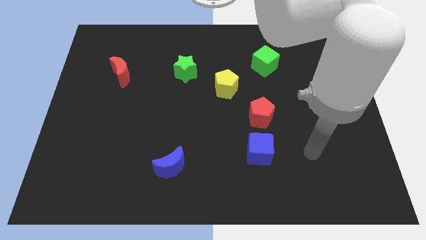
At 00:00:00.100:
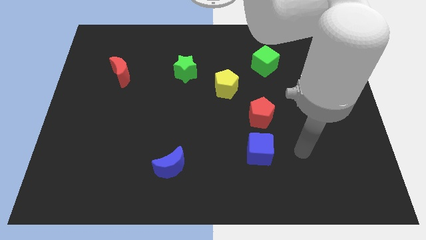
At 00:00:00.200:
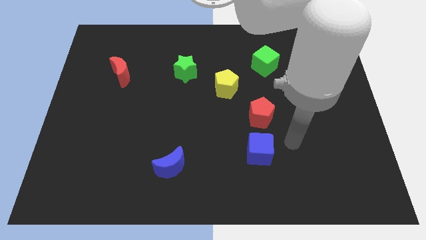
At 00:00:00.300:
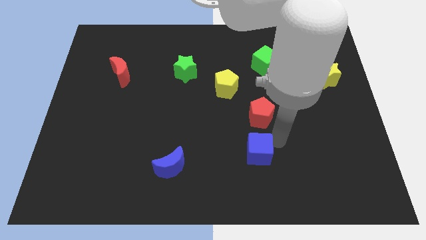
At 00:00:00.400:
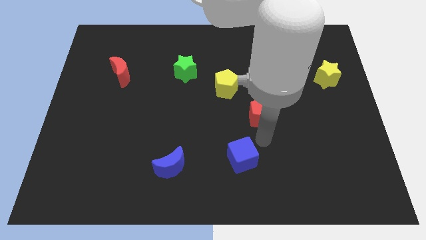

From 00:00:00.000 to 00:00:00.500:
move the red pentagon away from the blue cube

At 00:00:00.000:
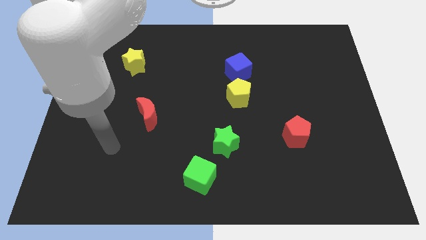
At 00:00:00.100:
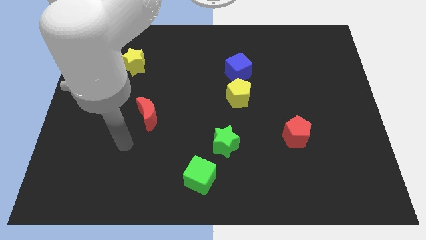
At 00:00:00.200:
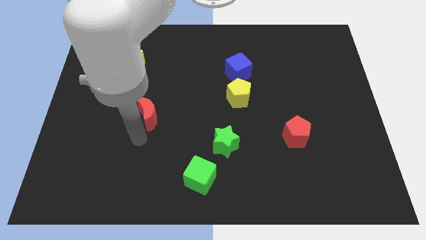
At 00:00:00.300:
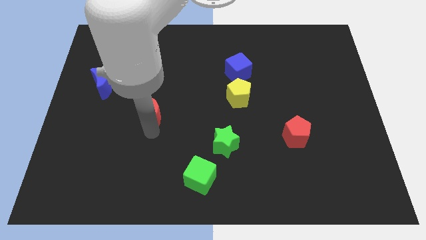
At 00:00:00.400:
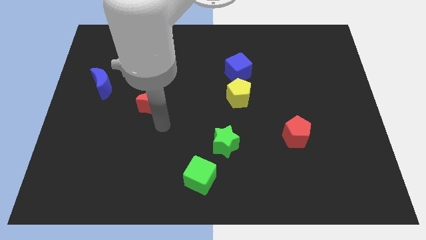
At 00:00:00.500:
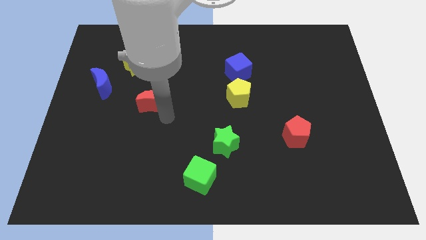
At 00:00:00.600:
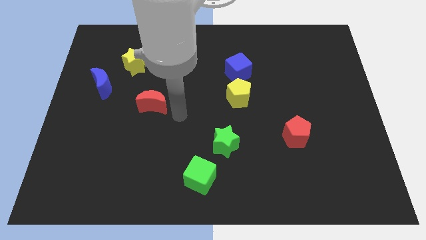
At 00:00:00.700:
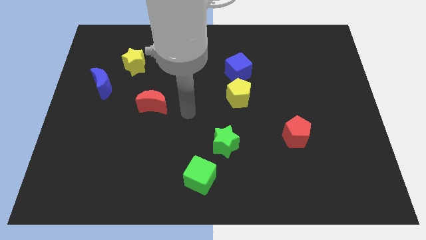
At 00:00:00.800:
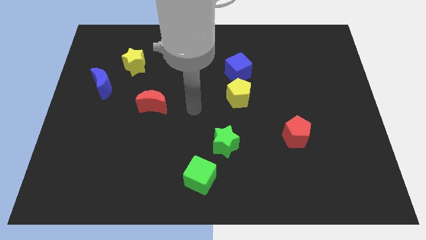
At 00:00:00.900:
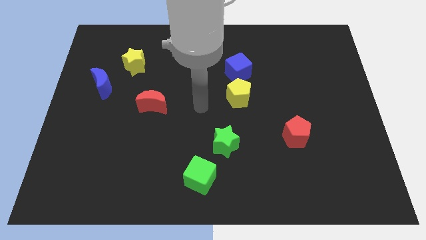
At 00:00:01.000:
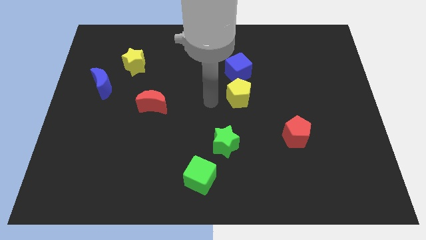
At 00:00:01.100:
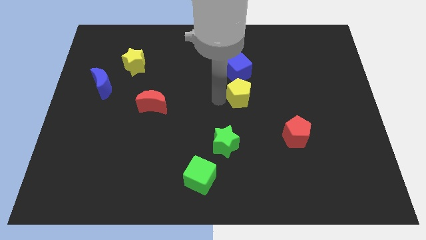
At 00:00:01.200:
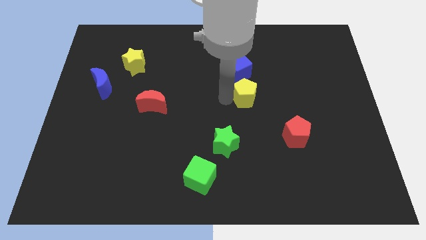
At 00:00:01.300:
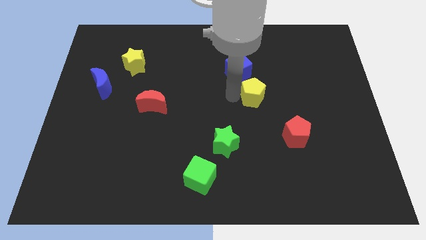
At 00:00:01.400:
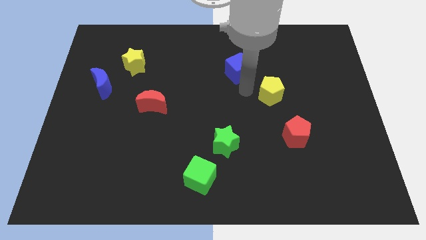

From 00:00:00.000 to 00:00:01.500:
move the blue cube away from the yellow pentagon

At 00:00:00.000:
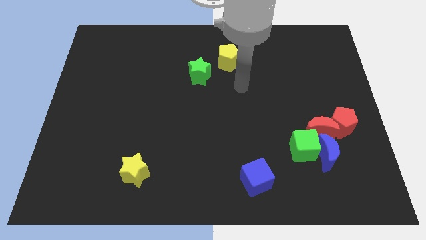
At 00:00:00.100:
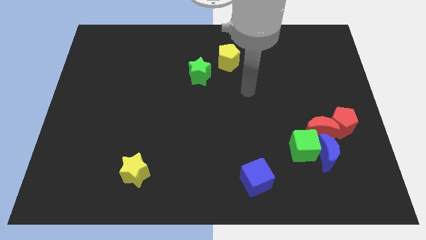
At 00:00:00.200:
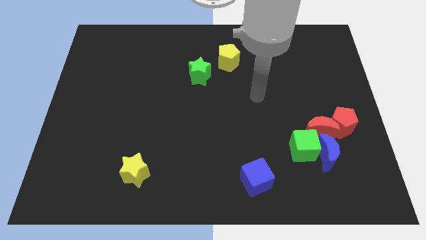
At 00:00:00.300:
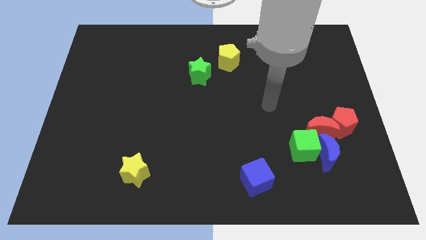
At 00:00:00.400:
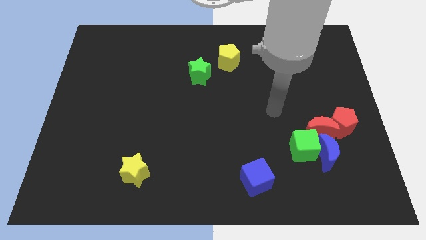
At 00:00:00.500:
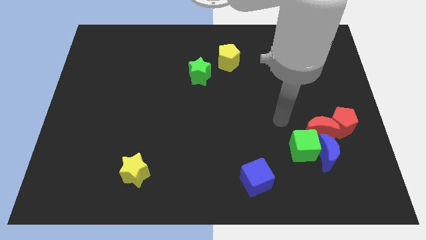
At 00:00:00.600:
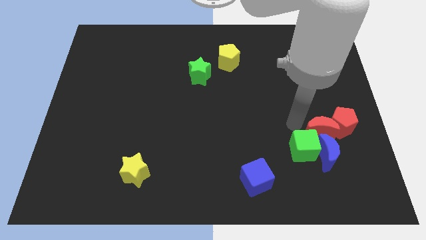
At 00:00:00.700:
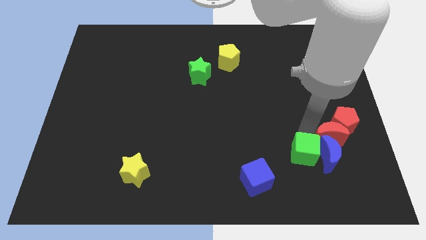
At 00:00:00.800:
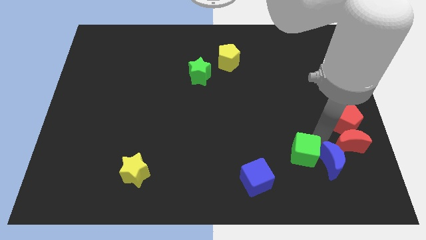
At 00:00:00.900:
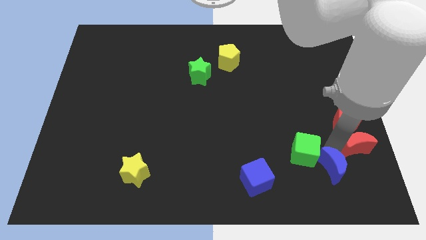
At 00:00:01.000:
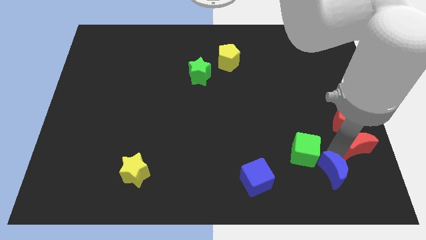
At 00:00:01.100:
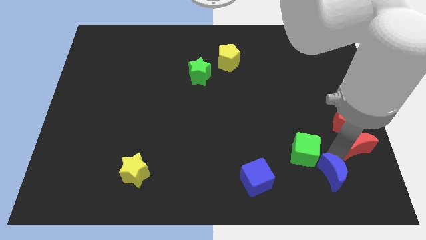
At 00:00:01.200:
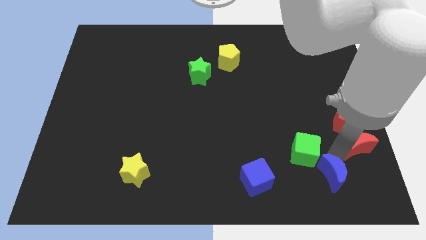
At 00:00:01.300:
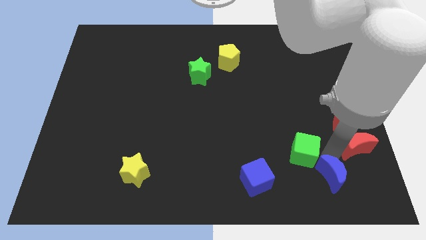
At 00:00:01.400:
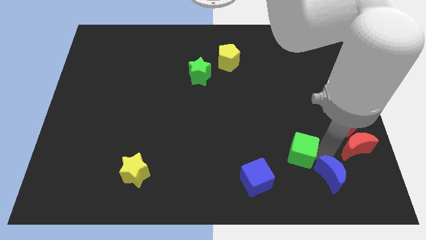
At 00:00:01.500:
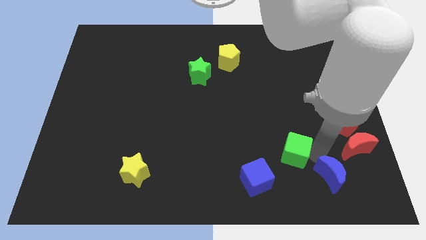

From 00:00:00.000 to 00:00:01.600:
pull the green cube apart from the blue moon and red moon

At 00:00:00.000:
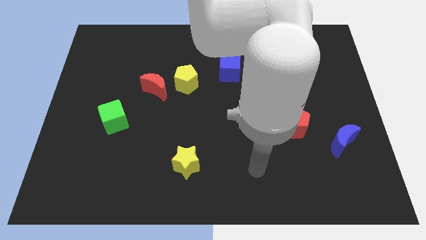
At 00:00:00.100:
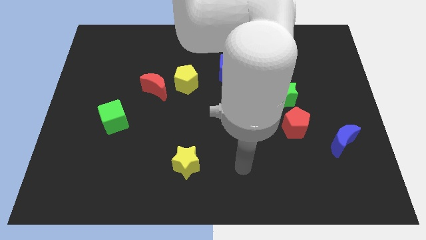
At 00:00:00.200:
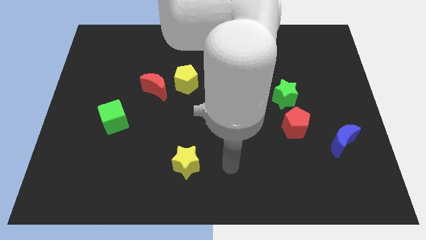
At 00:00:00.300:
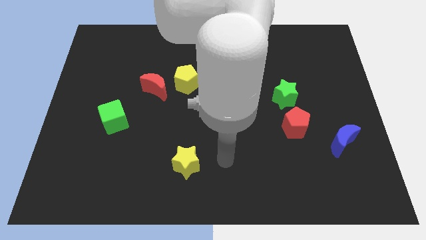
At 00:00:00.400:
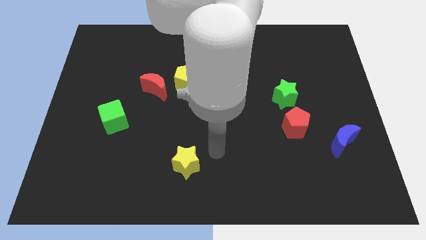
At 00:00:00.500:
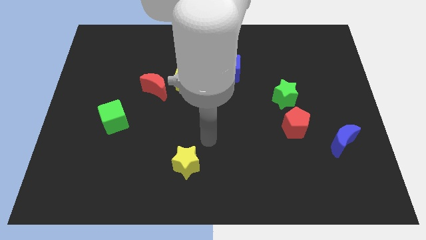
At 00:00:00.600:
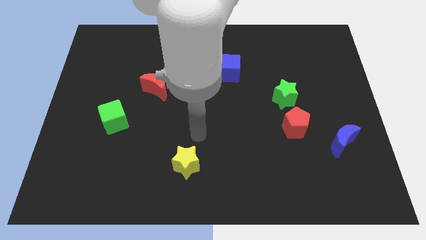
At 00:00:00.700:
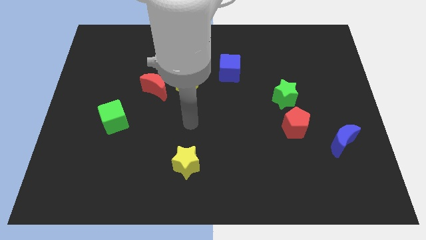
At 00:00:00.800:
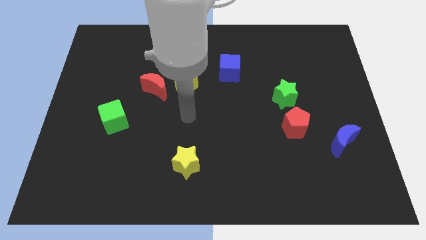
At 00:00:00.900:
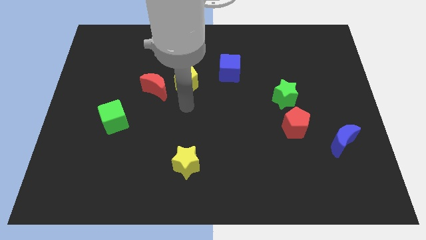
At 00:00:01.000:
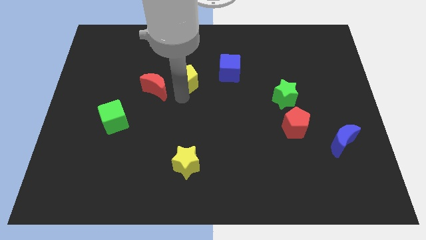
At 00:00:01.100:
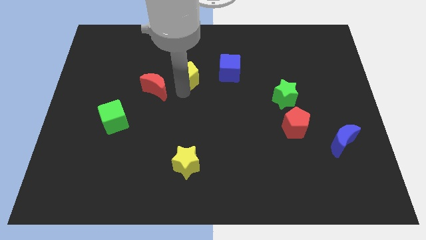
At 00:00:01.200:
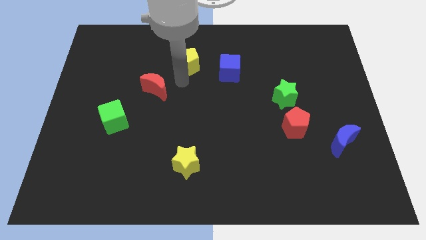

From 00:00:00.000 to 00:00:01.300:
move the red moon away from the yellow pentagon

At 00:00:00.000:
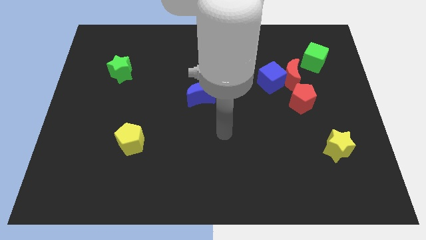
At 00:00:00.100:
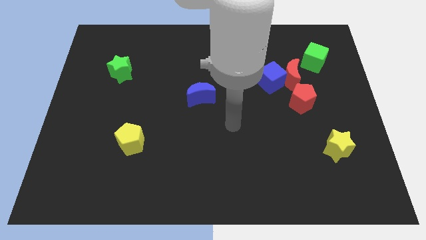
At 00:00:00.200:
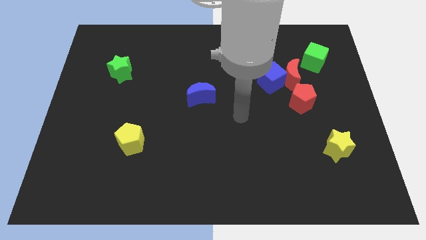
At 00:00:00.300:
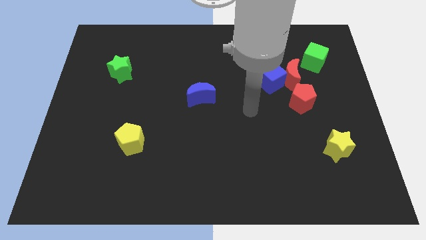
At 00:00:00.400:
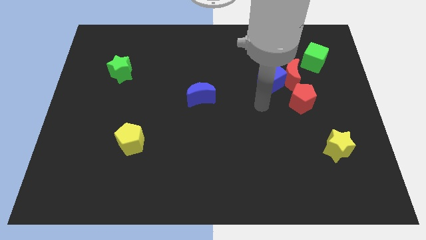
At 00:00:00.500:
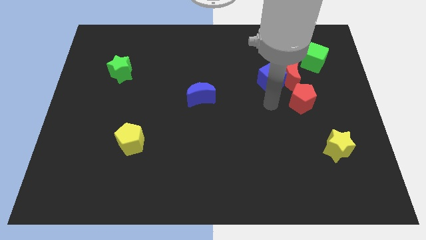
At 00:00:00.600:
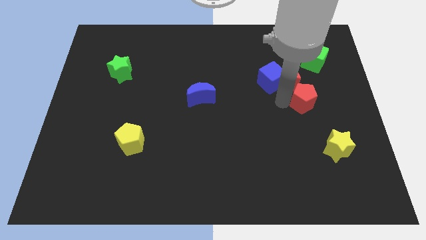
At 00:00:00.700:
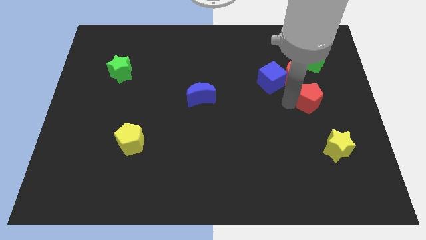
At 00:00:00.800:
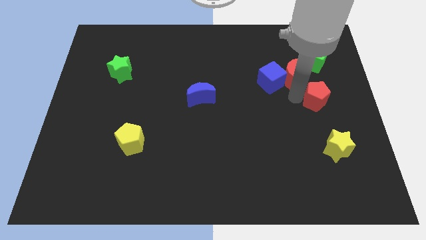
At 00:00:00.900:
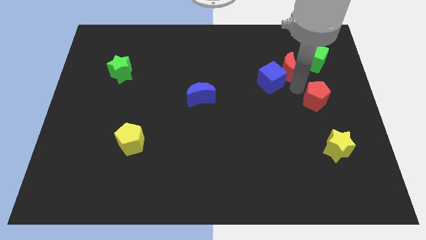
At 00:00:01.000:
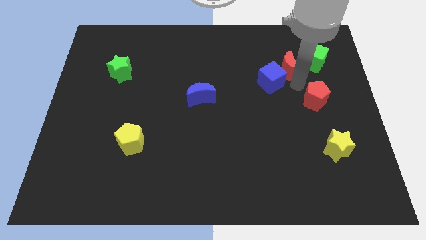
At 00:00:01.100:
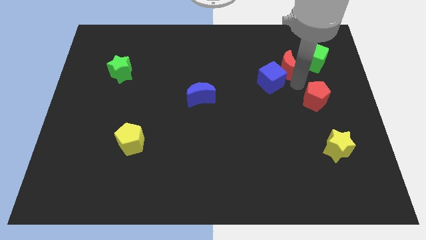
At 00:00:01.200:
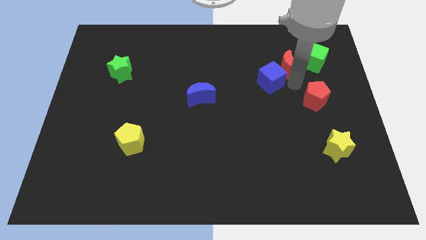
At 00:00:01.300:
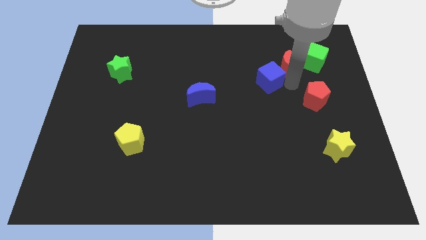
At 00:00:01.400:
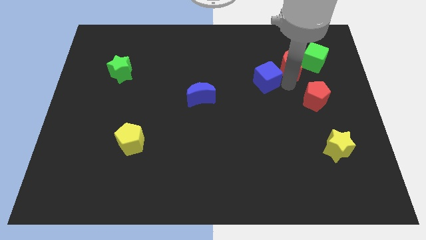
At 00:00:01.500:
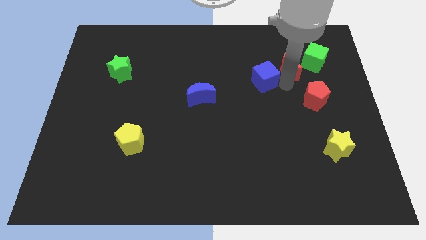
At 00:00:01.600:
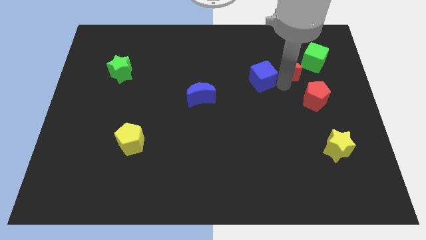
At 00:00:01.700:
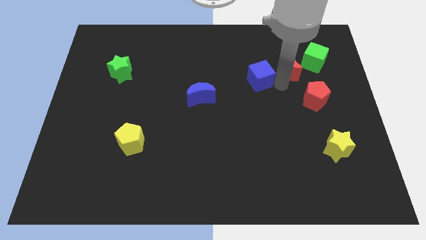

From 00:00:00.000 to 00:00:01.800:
move the blue cube away from the red moon and red pentagon

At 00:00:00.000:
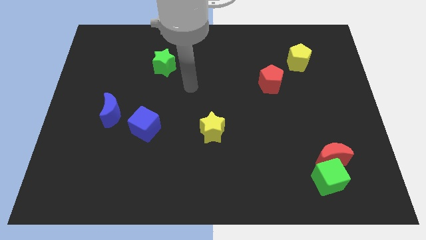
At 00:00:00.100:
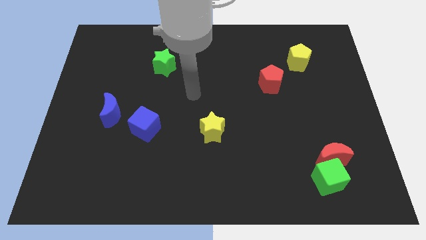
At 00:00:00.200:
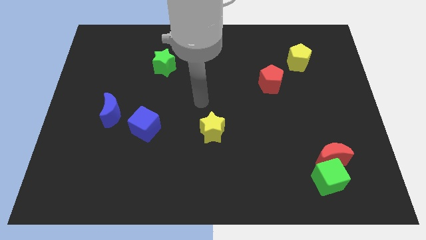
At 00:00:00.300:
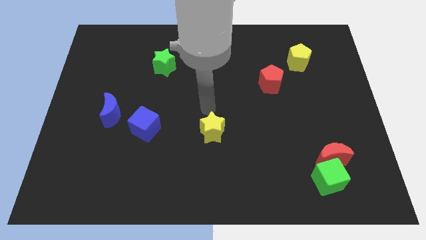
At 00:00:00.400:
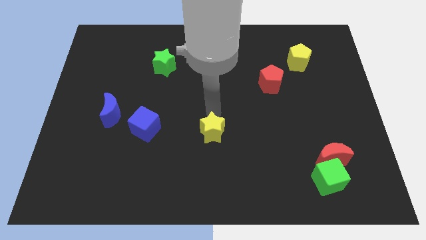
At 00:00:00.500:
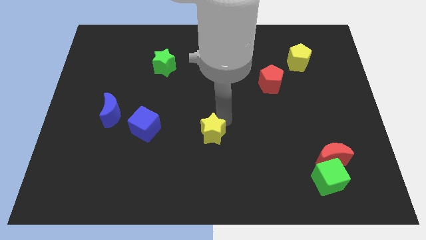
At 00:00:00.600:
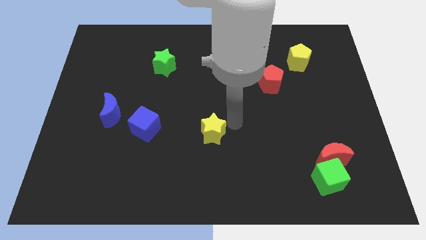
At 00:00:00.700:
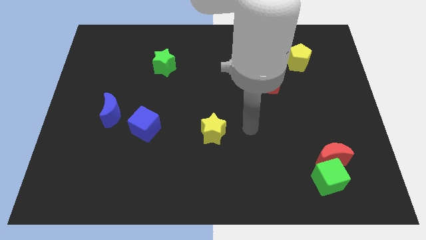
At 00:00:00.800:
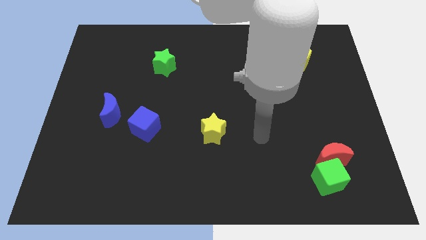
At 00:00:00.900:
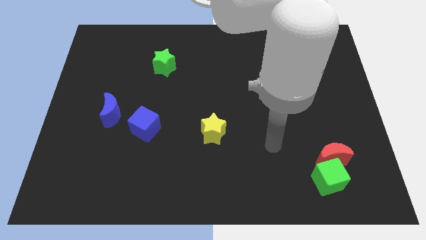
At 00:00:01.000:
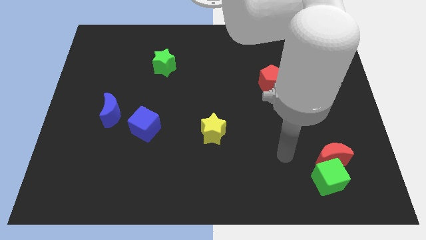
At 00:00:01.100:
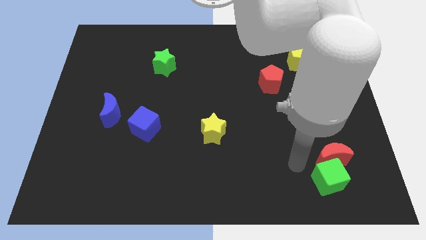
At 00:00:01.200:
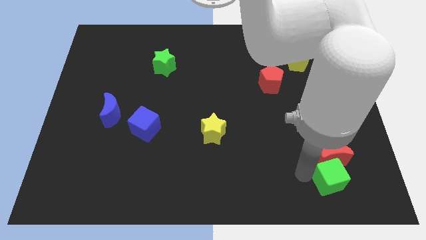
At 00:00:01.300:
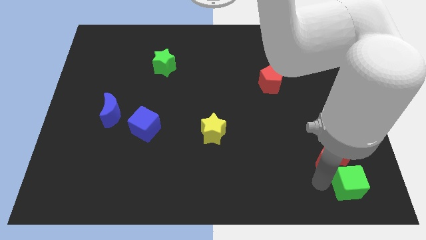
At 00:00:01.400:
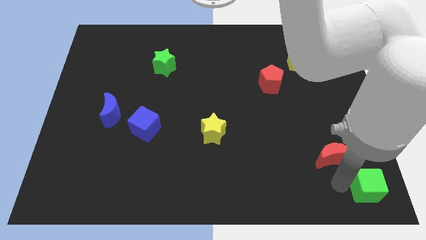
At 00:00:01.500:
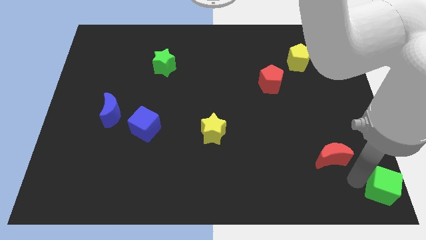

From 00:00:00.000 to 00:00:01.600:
pull the red moon apart from the green cube

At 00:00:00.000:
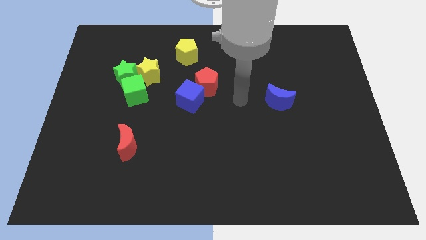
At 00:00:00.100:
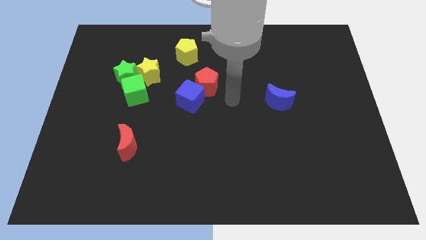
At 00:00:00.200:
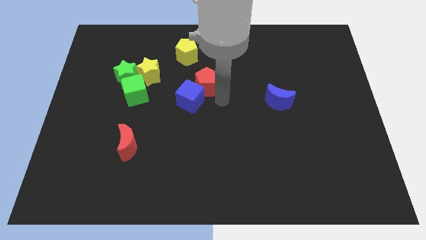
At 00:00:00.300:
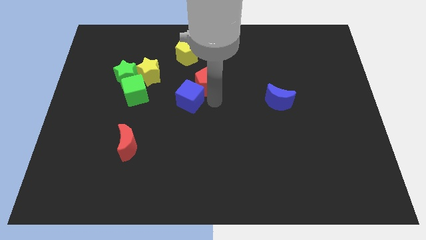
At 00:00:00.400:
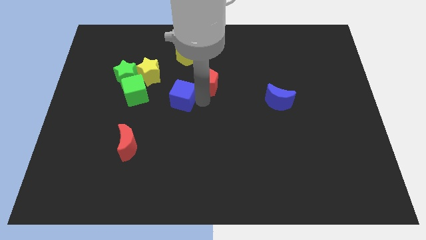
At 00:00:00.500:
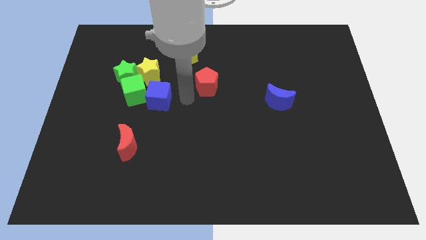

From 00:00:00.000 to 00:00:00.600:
pull the red pentagon apart from the blue cube

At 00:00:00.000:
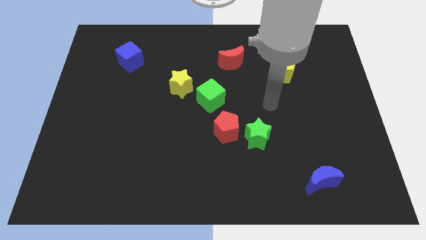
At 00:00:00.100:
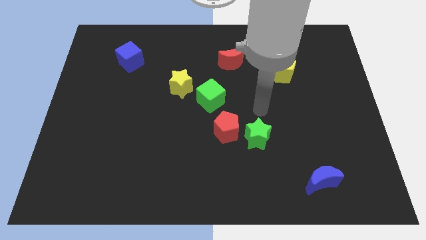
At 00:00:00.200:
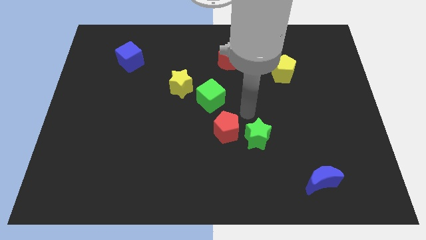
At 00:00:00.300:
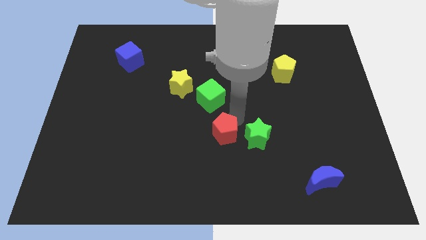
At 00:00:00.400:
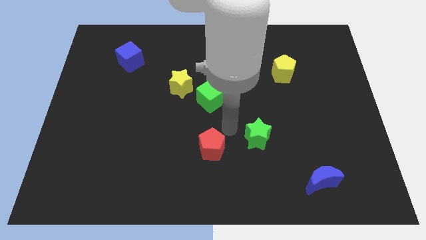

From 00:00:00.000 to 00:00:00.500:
separate the green star from the red pentagon
